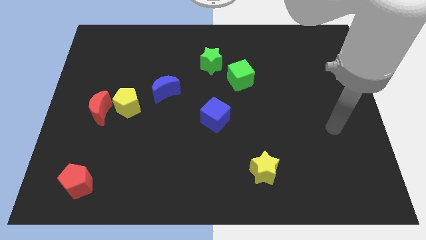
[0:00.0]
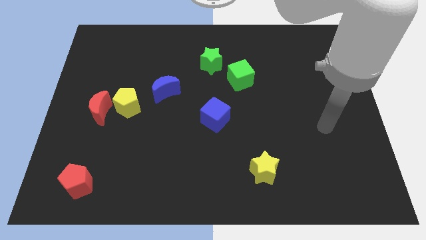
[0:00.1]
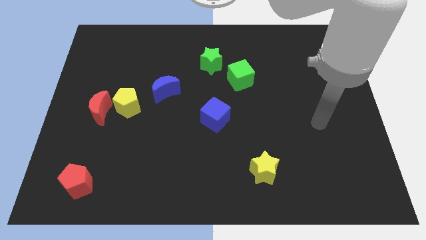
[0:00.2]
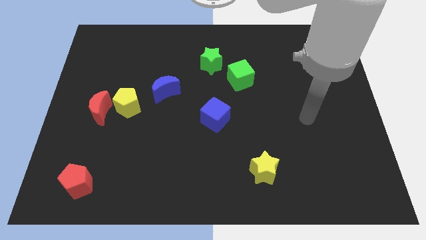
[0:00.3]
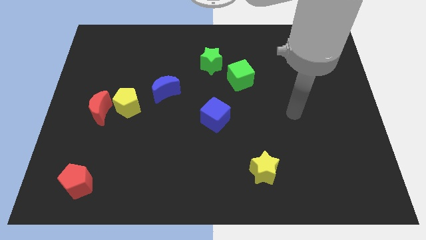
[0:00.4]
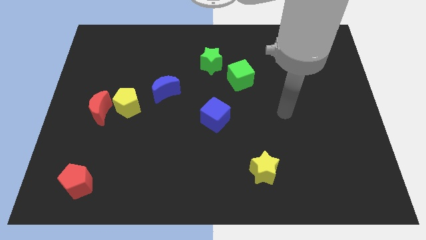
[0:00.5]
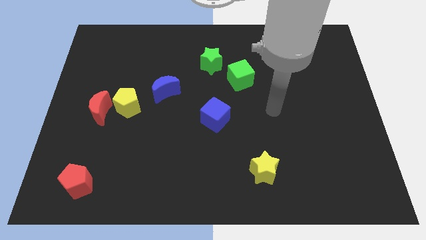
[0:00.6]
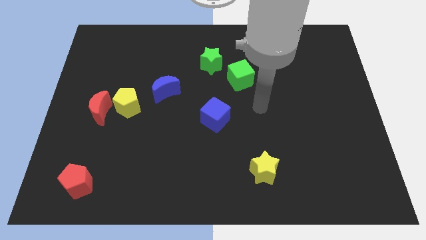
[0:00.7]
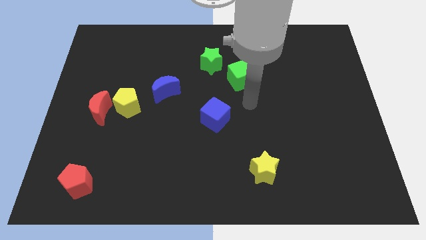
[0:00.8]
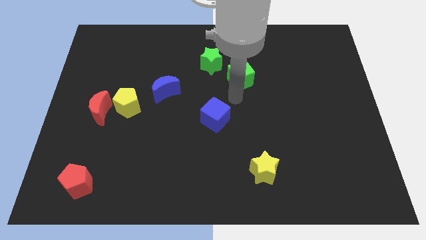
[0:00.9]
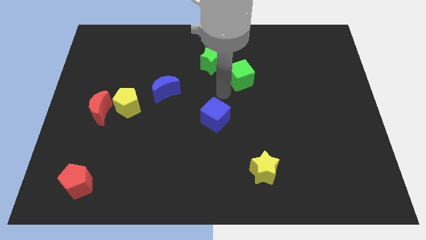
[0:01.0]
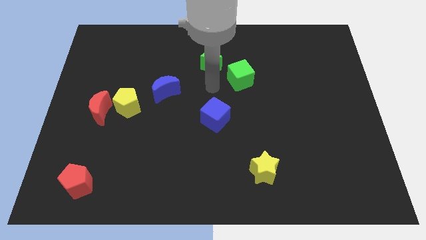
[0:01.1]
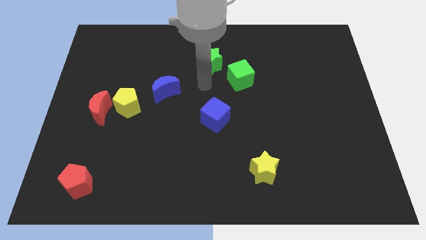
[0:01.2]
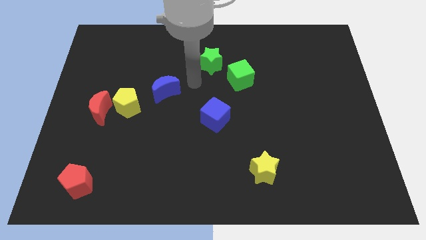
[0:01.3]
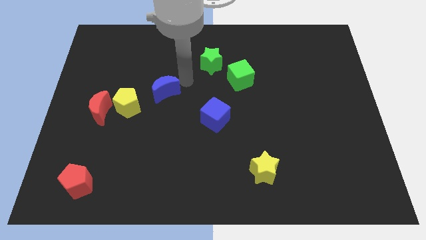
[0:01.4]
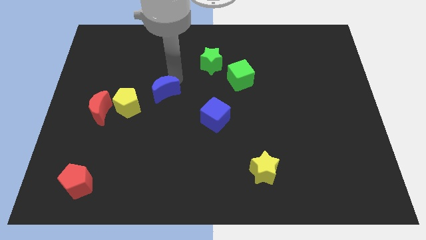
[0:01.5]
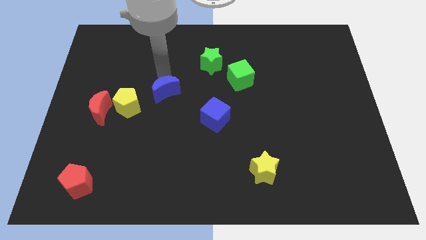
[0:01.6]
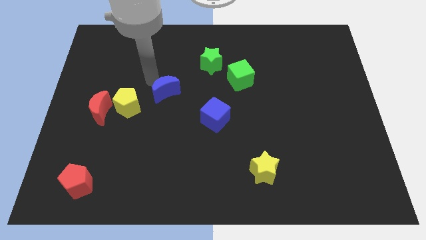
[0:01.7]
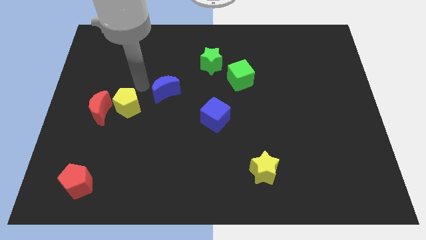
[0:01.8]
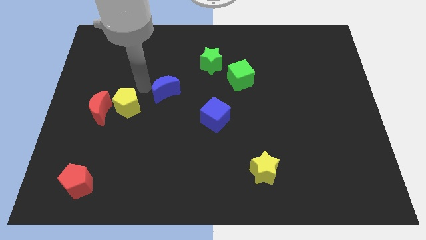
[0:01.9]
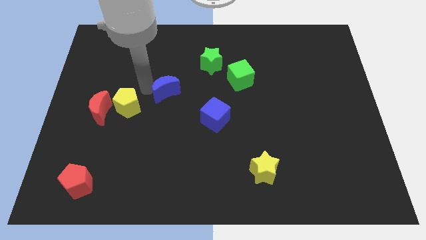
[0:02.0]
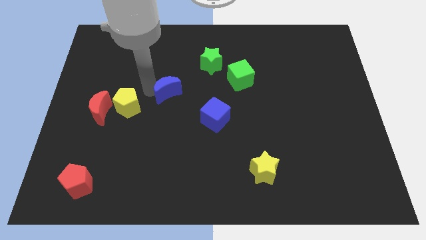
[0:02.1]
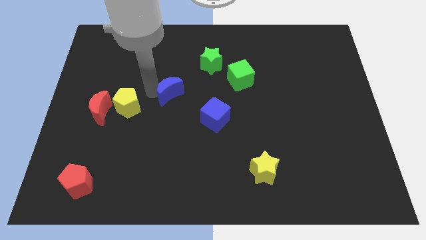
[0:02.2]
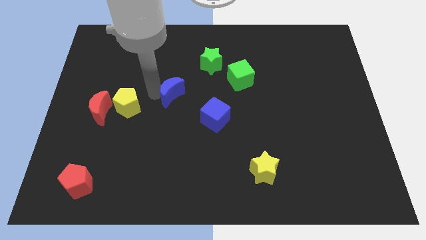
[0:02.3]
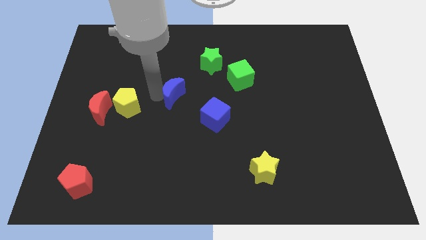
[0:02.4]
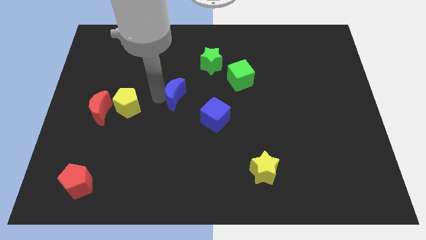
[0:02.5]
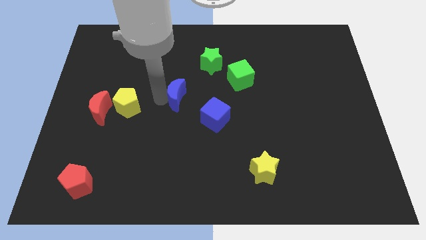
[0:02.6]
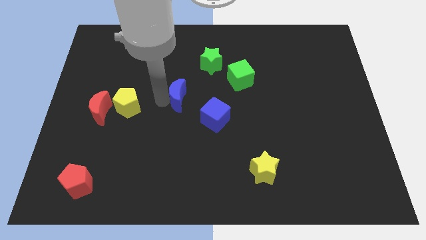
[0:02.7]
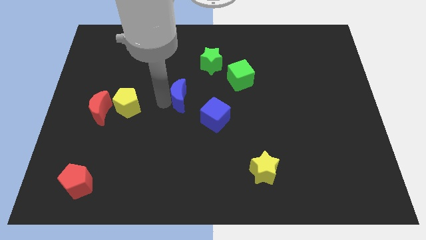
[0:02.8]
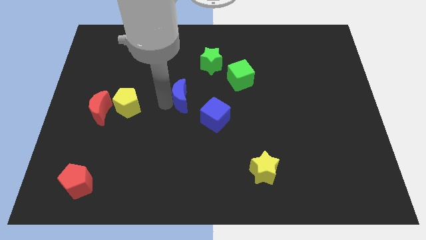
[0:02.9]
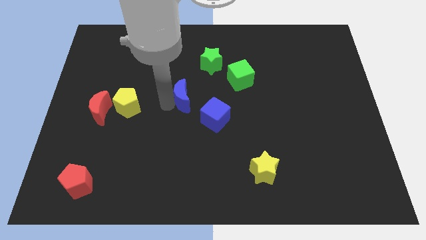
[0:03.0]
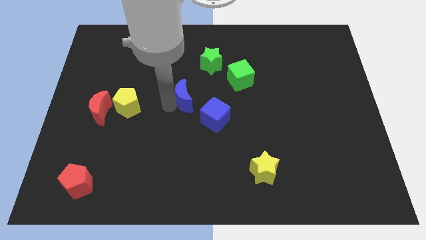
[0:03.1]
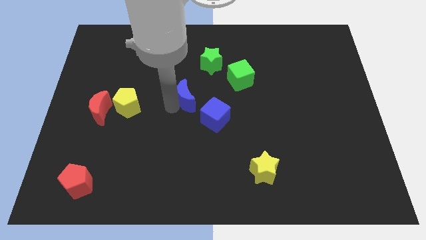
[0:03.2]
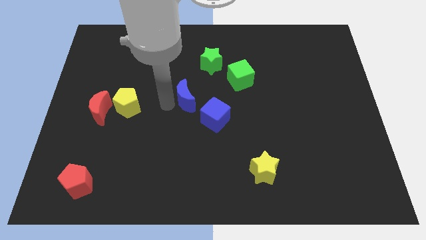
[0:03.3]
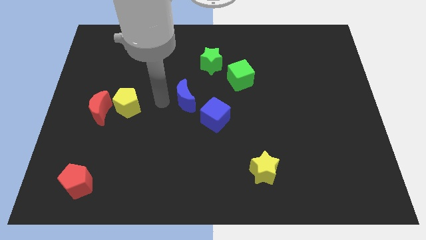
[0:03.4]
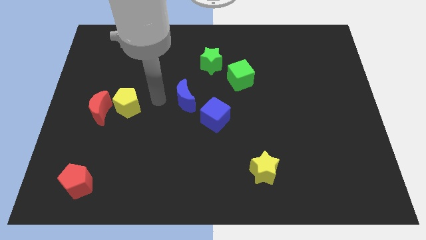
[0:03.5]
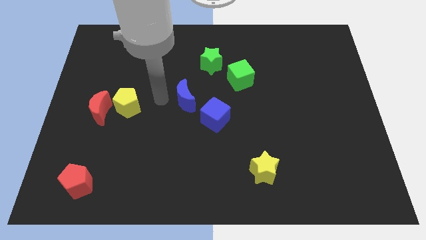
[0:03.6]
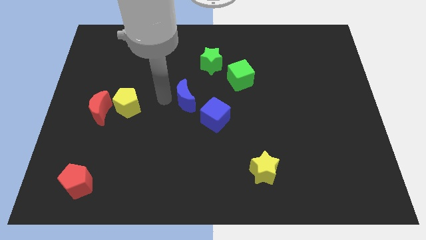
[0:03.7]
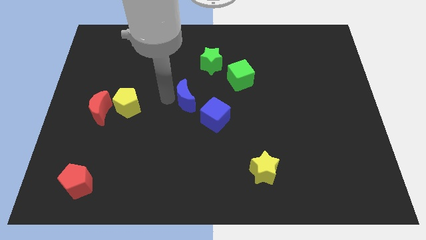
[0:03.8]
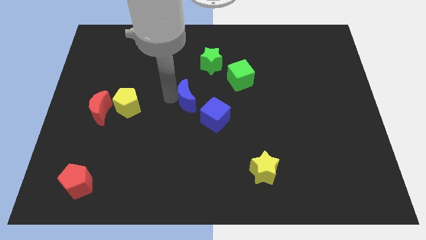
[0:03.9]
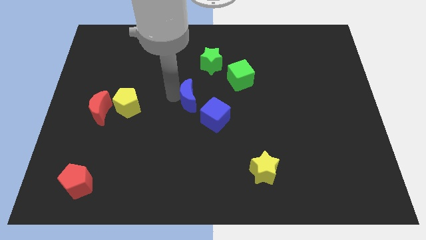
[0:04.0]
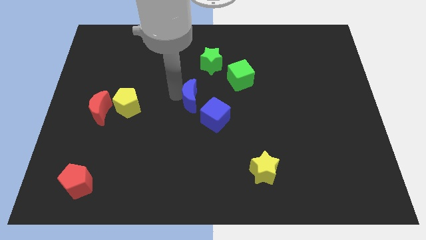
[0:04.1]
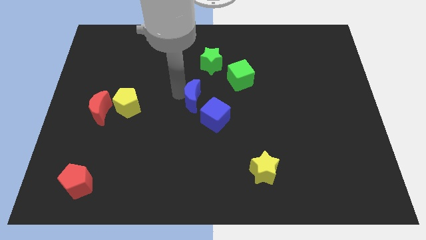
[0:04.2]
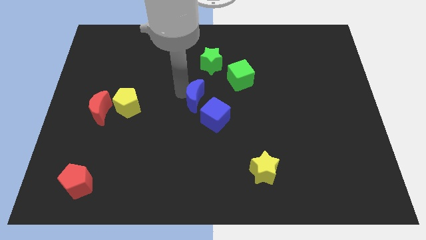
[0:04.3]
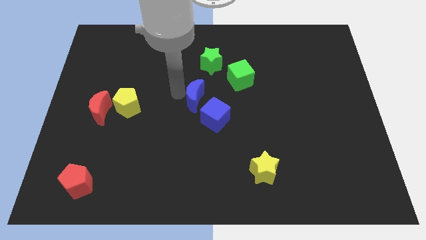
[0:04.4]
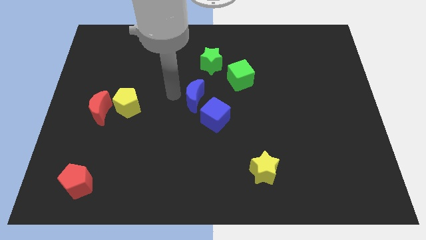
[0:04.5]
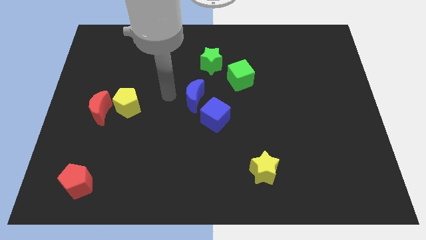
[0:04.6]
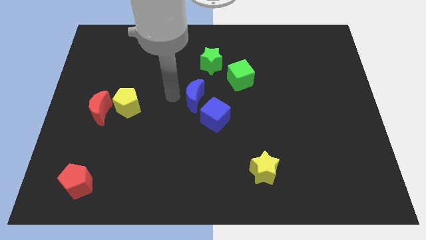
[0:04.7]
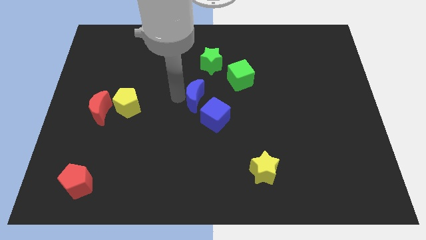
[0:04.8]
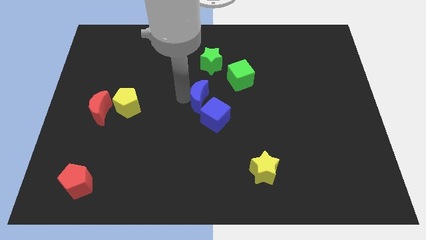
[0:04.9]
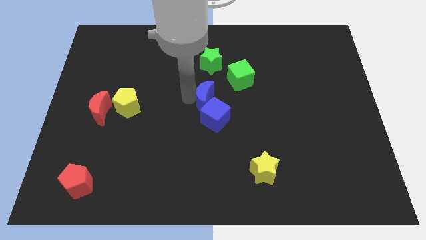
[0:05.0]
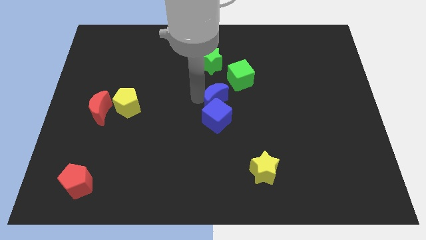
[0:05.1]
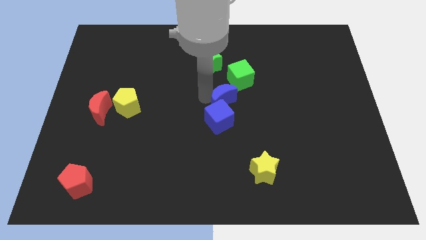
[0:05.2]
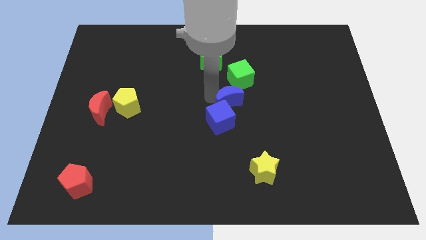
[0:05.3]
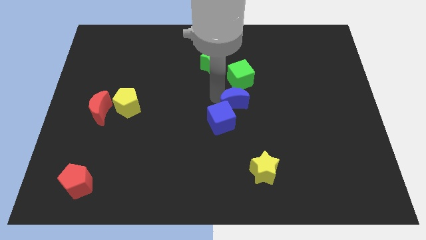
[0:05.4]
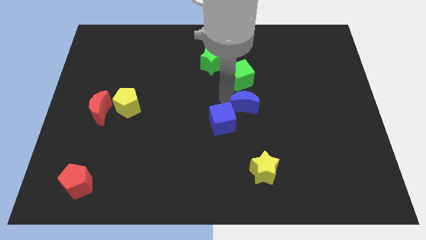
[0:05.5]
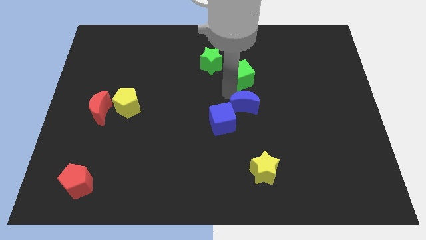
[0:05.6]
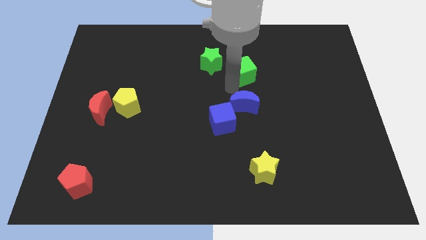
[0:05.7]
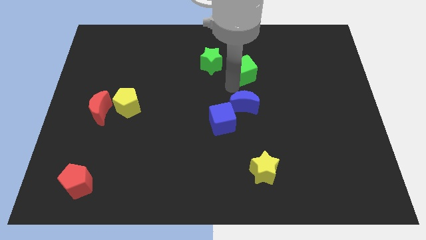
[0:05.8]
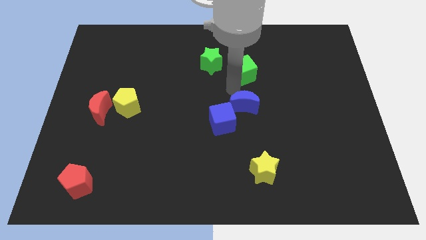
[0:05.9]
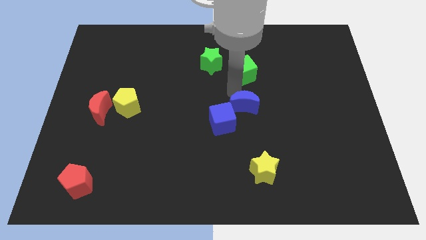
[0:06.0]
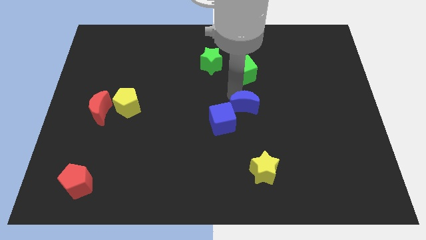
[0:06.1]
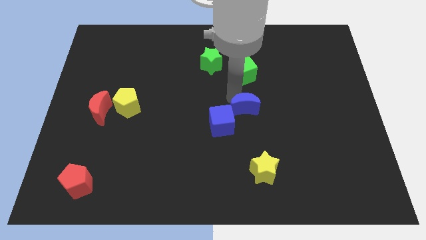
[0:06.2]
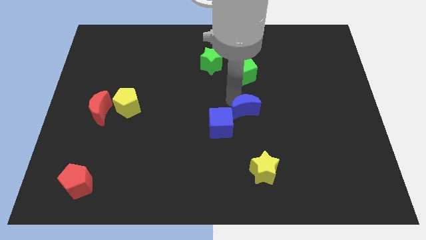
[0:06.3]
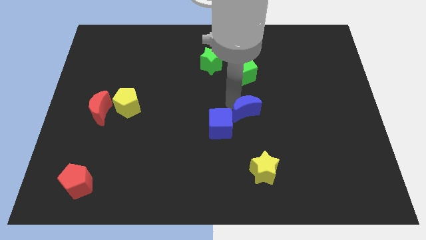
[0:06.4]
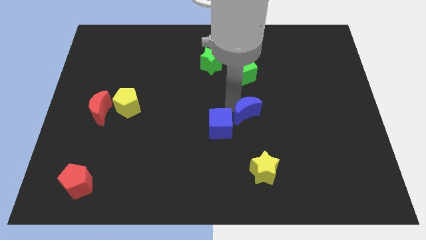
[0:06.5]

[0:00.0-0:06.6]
push the blue moon to the top of the yellow star

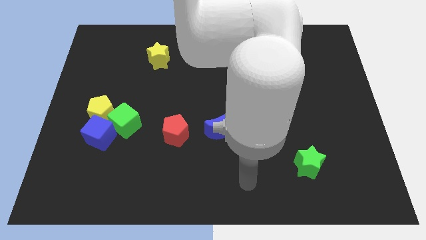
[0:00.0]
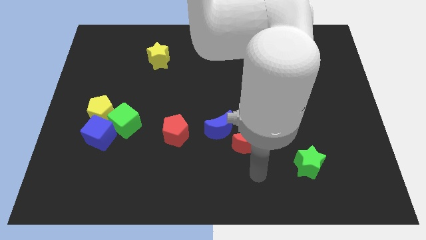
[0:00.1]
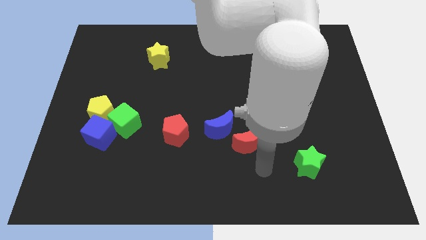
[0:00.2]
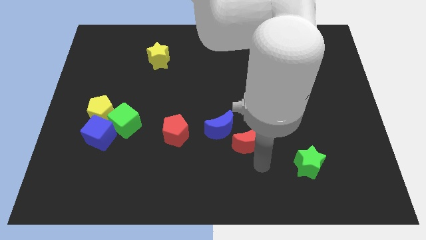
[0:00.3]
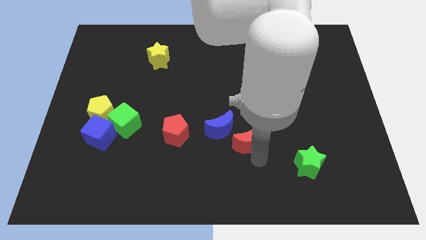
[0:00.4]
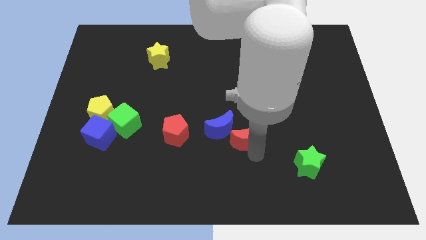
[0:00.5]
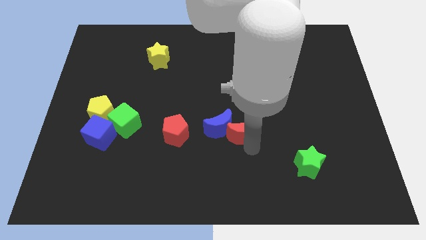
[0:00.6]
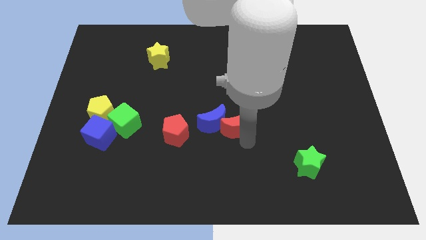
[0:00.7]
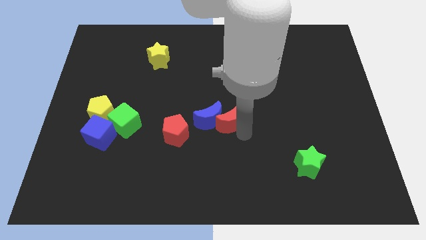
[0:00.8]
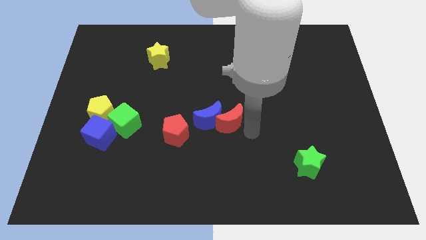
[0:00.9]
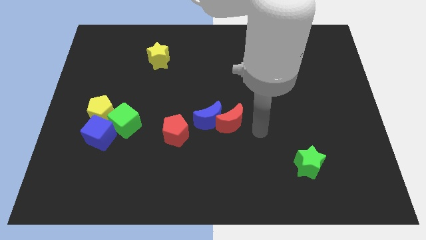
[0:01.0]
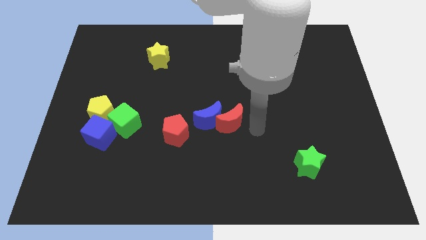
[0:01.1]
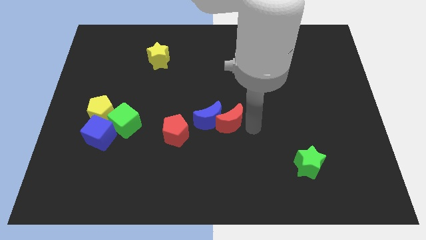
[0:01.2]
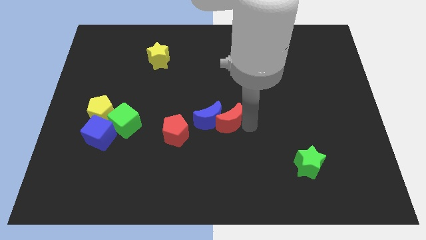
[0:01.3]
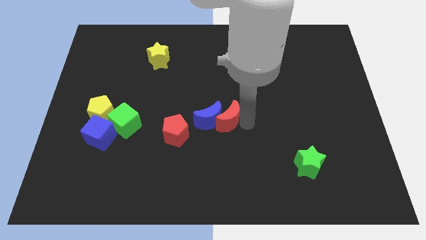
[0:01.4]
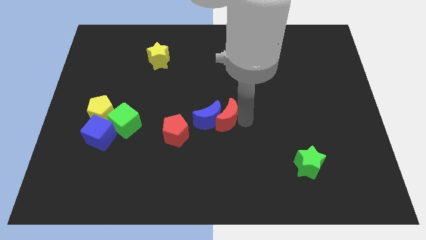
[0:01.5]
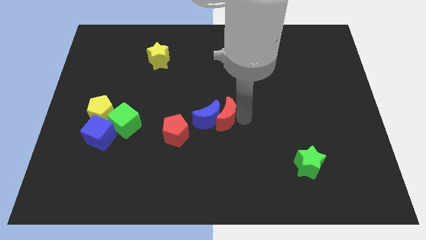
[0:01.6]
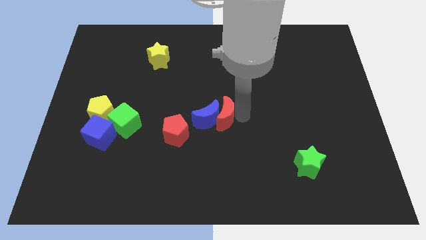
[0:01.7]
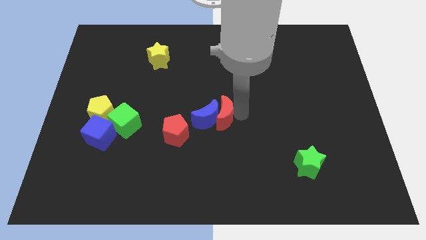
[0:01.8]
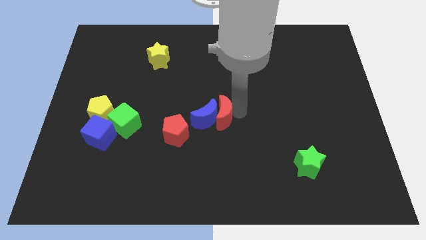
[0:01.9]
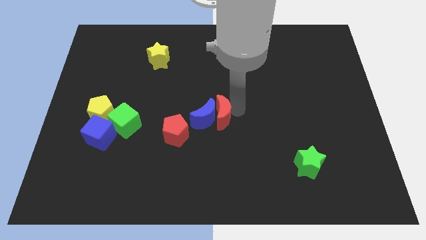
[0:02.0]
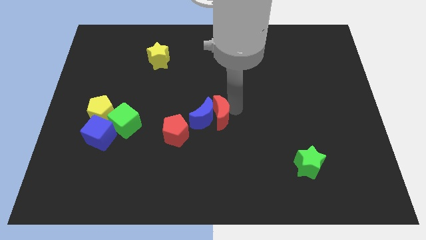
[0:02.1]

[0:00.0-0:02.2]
move the red moon to the top right side of the red pentagon
